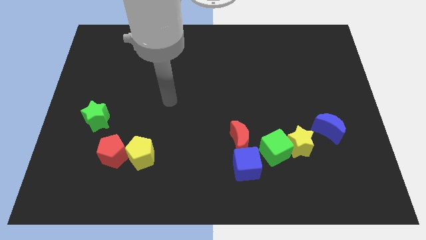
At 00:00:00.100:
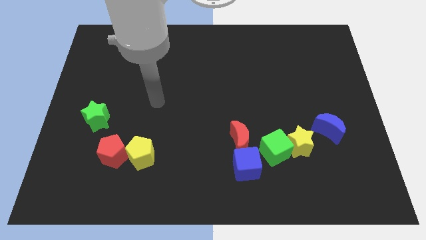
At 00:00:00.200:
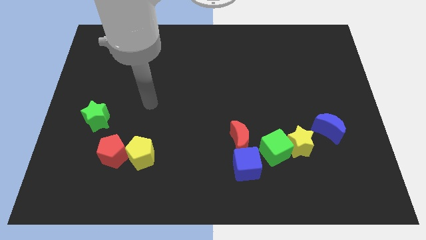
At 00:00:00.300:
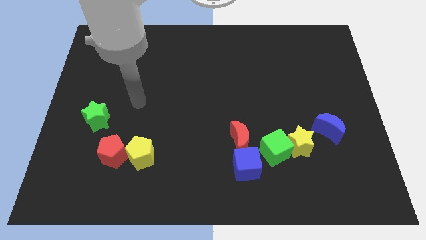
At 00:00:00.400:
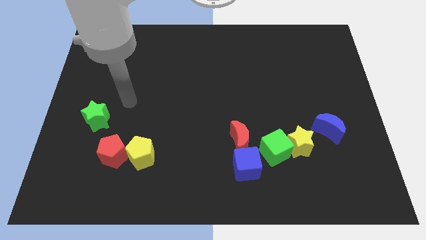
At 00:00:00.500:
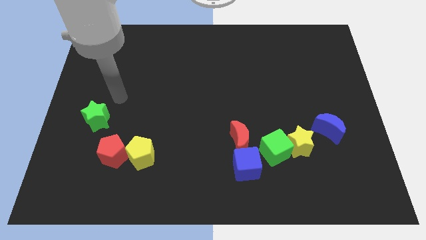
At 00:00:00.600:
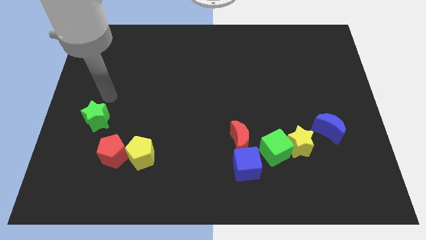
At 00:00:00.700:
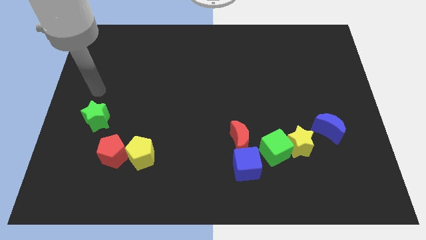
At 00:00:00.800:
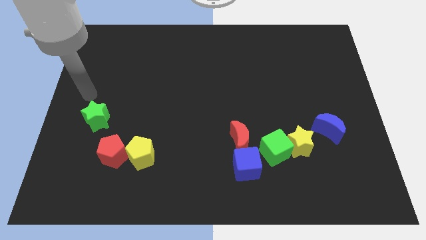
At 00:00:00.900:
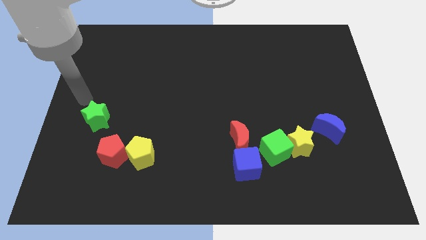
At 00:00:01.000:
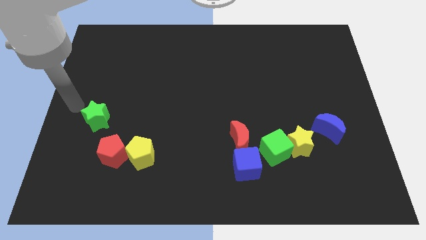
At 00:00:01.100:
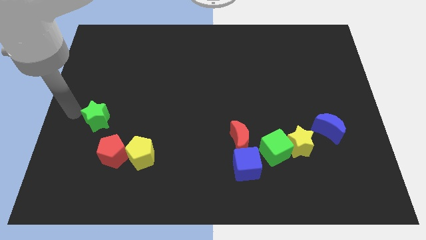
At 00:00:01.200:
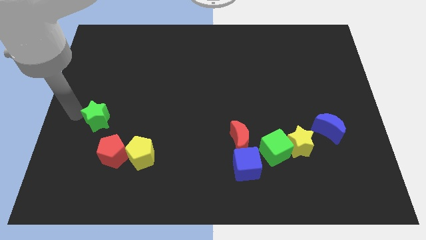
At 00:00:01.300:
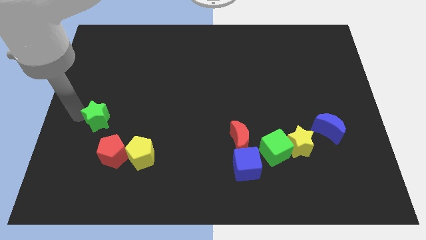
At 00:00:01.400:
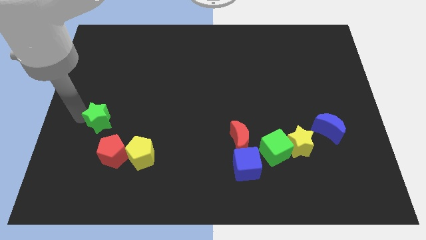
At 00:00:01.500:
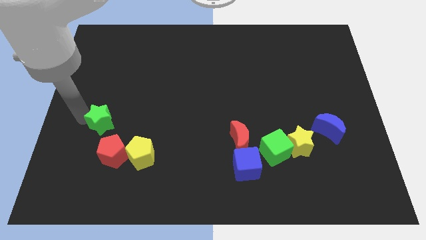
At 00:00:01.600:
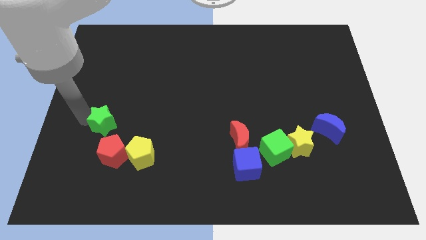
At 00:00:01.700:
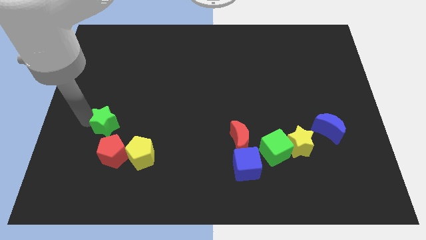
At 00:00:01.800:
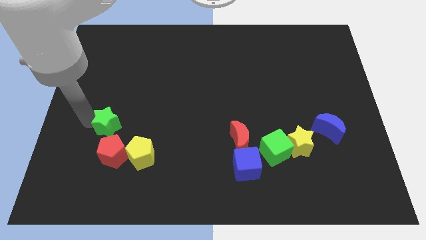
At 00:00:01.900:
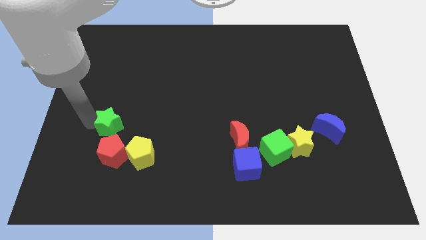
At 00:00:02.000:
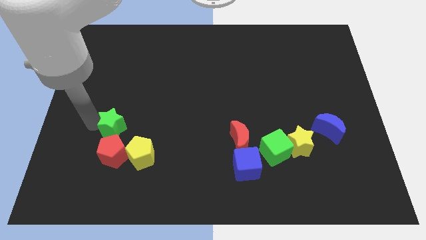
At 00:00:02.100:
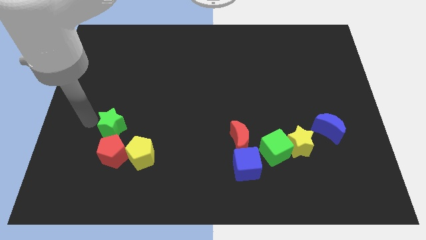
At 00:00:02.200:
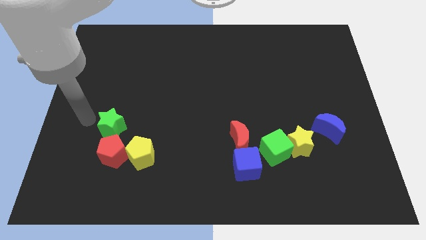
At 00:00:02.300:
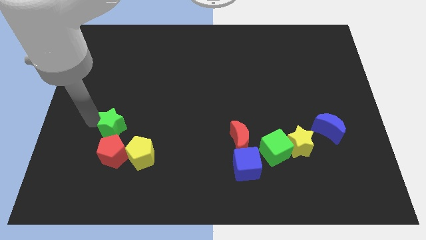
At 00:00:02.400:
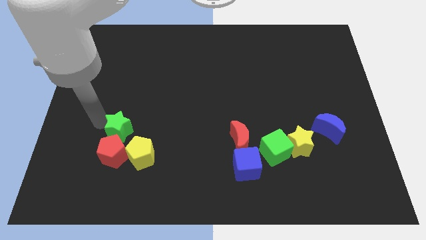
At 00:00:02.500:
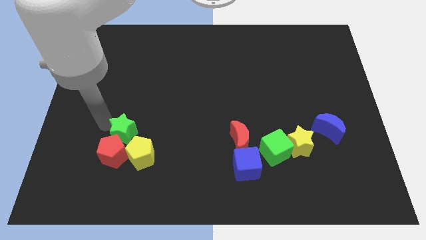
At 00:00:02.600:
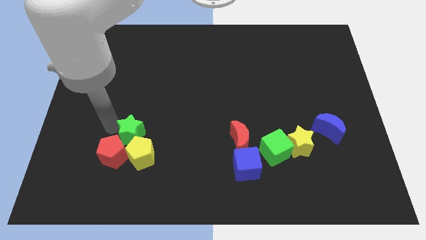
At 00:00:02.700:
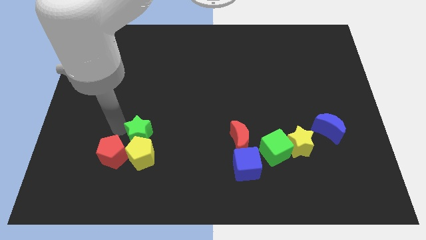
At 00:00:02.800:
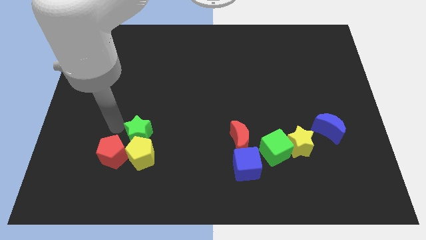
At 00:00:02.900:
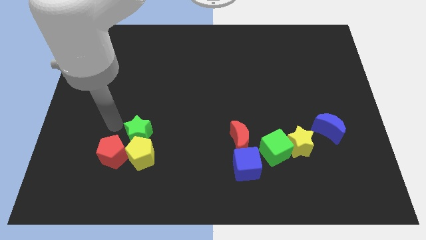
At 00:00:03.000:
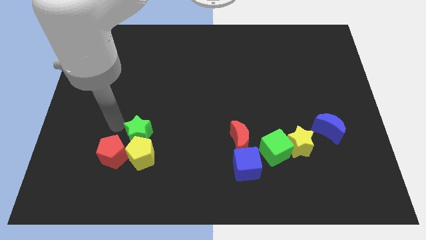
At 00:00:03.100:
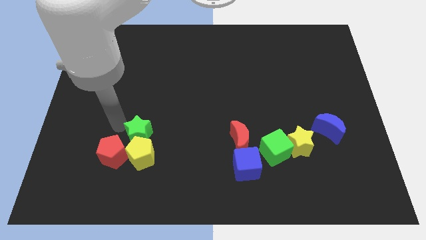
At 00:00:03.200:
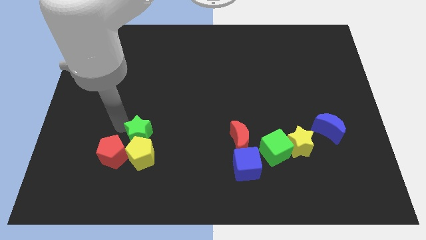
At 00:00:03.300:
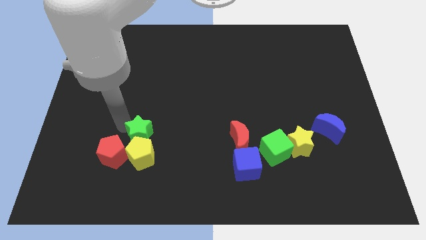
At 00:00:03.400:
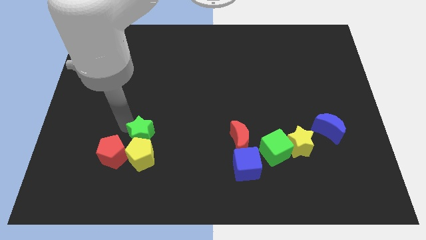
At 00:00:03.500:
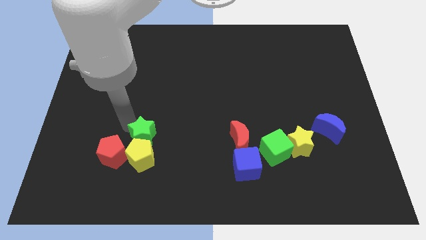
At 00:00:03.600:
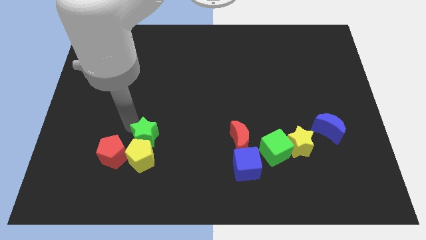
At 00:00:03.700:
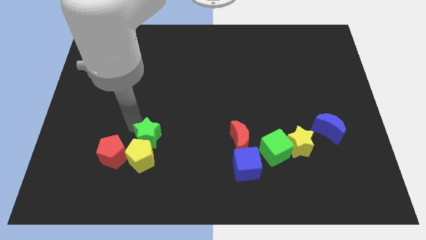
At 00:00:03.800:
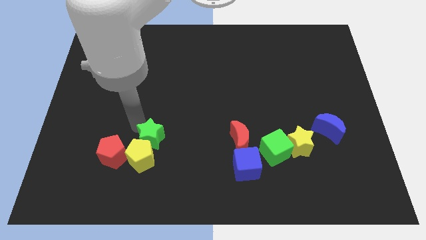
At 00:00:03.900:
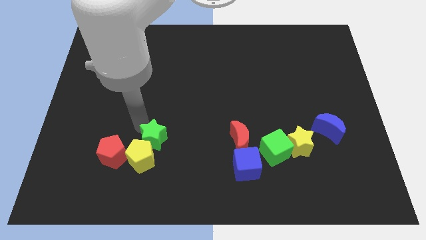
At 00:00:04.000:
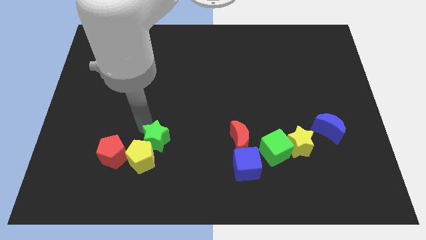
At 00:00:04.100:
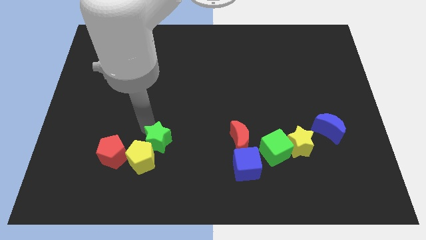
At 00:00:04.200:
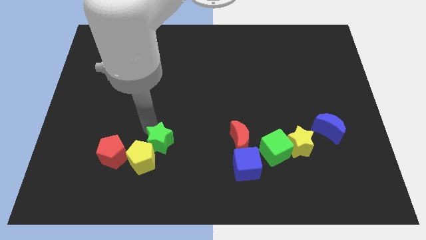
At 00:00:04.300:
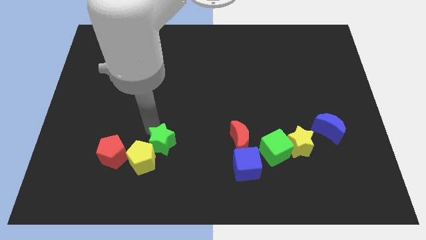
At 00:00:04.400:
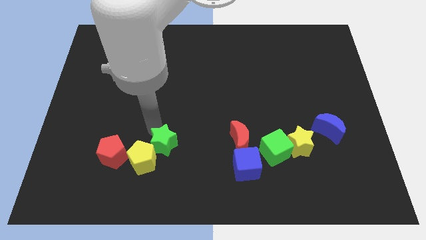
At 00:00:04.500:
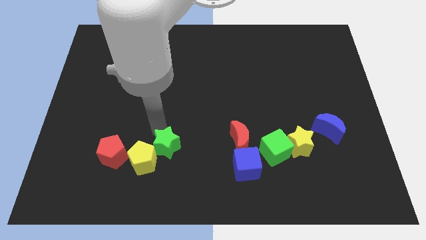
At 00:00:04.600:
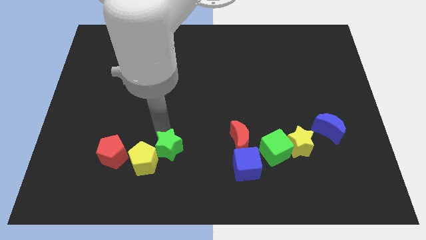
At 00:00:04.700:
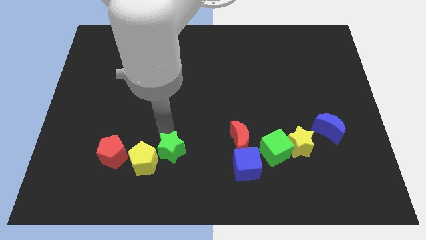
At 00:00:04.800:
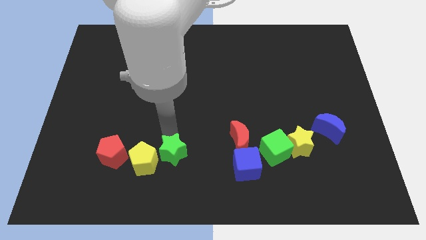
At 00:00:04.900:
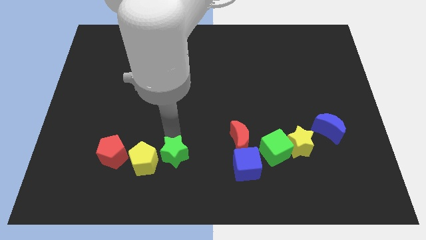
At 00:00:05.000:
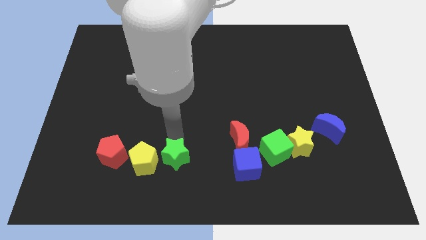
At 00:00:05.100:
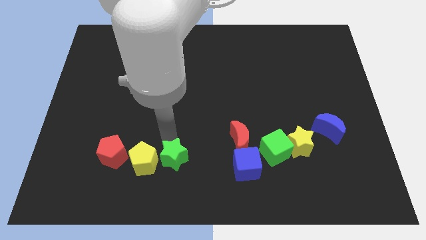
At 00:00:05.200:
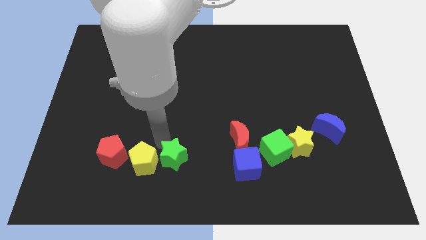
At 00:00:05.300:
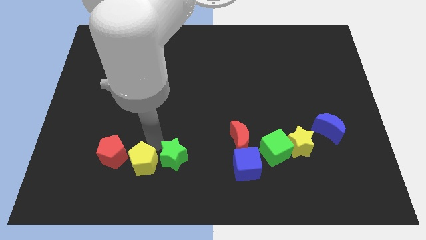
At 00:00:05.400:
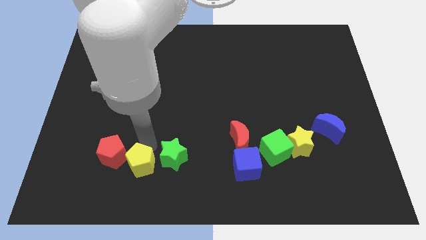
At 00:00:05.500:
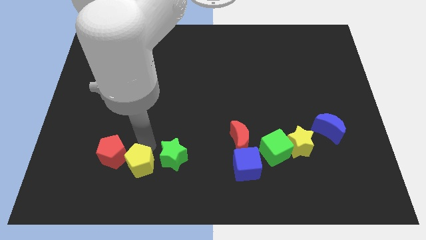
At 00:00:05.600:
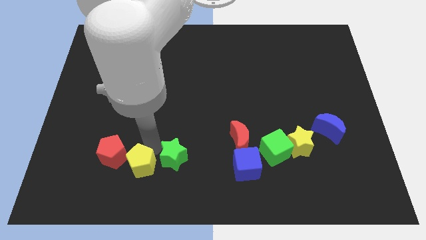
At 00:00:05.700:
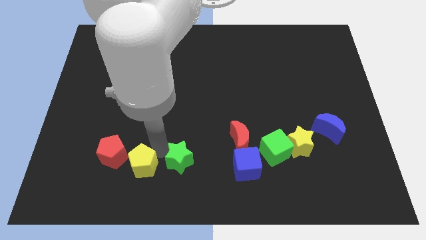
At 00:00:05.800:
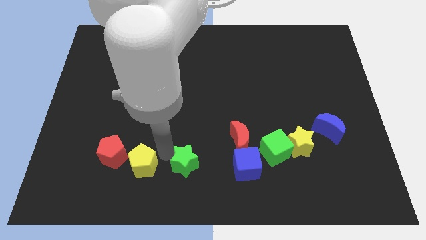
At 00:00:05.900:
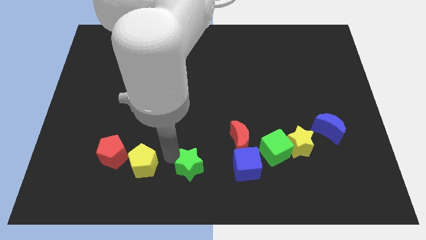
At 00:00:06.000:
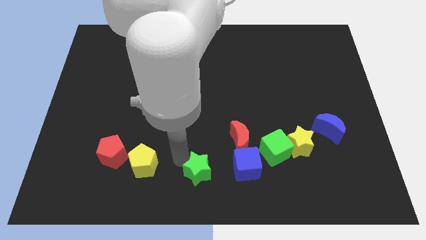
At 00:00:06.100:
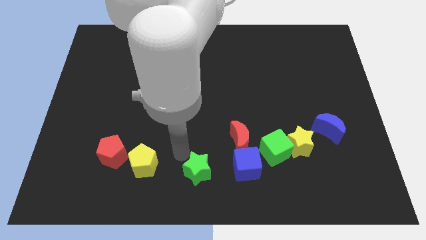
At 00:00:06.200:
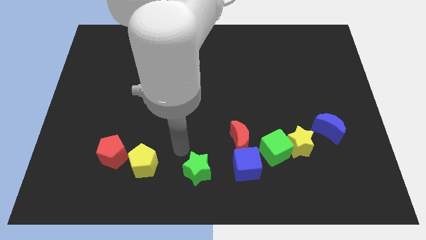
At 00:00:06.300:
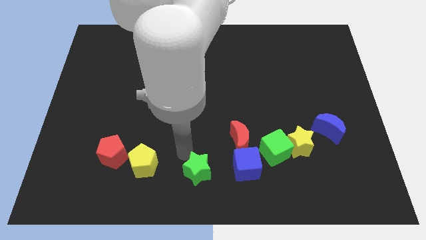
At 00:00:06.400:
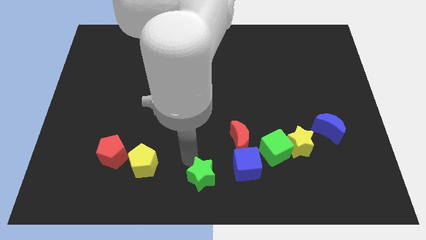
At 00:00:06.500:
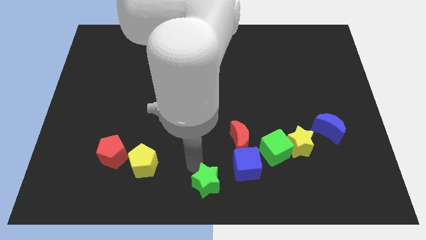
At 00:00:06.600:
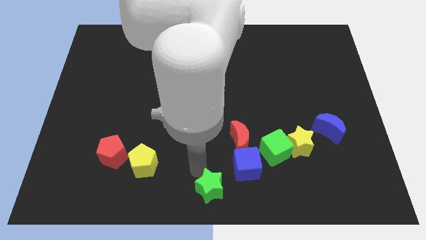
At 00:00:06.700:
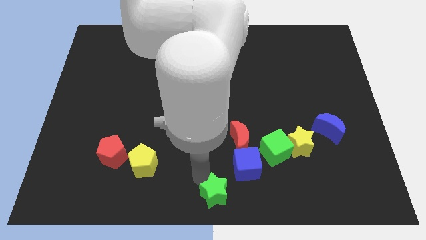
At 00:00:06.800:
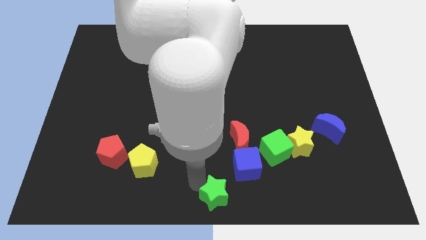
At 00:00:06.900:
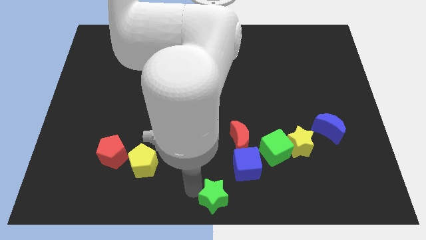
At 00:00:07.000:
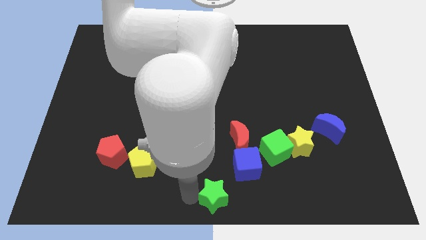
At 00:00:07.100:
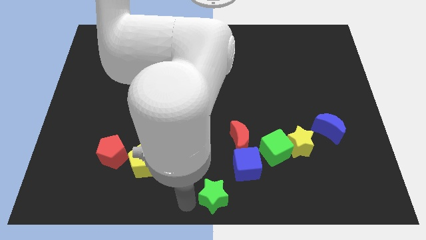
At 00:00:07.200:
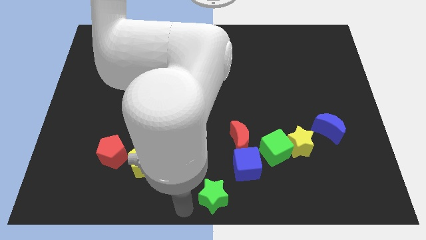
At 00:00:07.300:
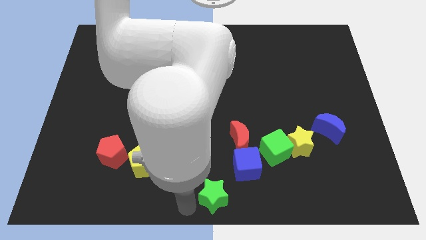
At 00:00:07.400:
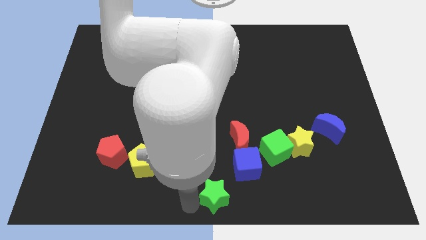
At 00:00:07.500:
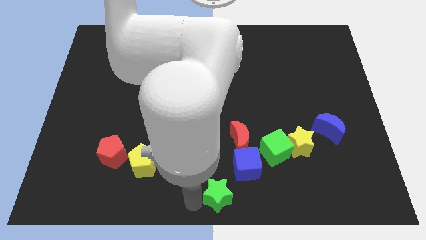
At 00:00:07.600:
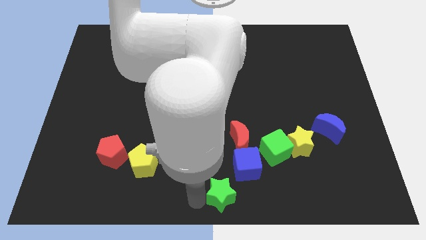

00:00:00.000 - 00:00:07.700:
slide the green star below the red moon
